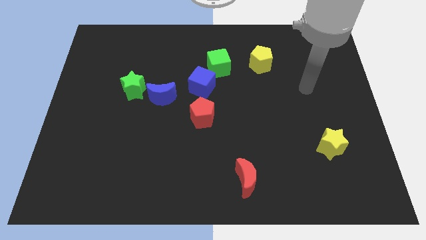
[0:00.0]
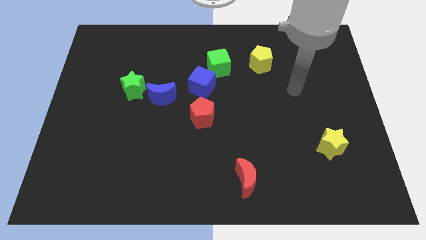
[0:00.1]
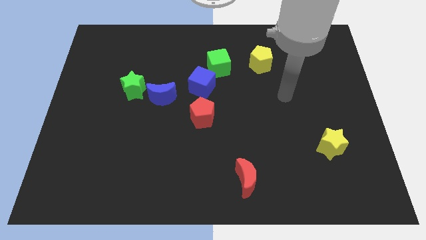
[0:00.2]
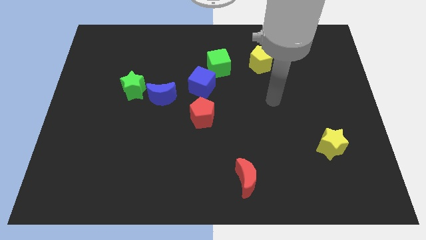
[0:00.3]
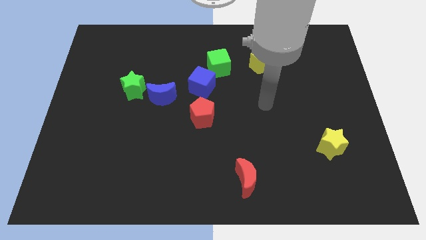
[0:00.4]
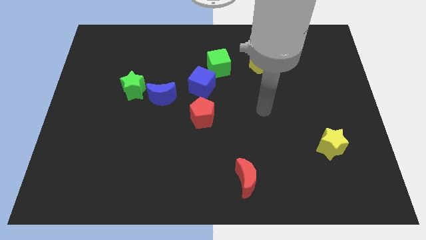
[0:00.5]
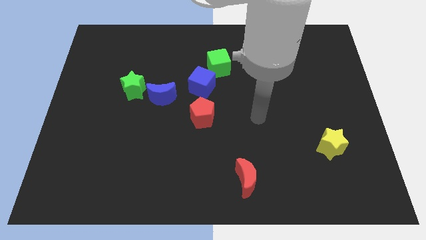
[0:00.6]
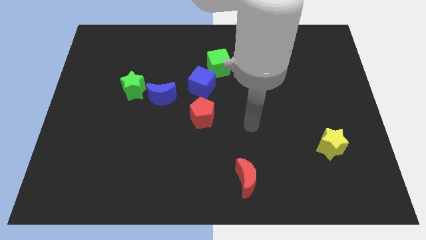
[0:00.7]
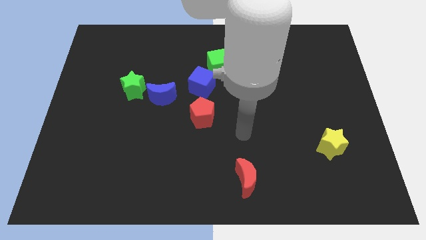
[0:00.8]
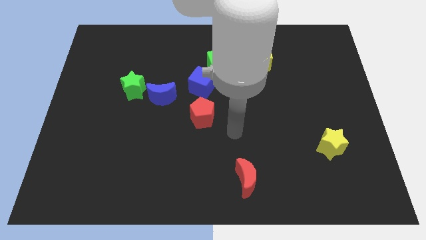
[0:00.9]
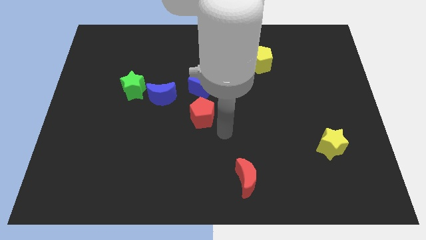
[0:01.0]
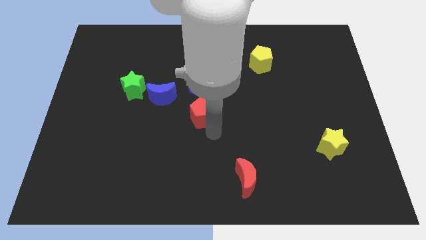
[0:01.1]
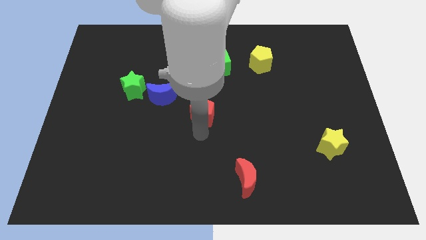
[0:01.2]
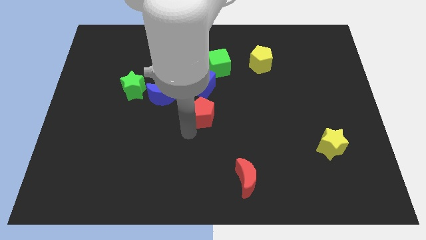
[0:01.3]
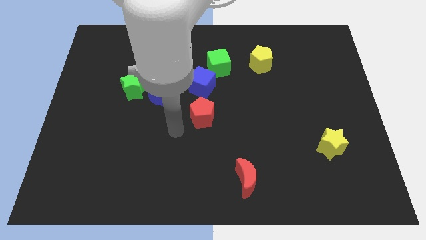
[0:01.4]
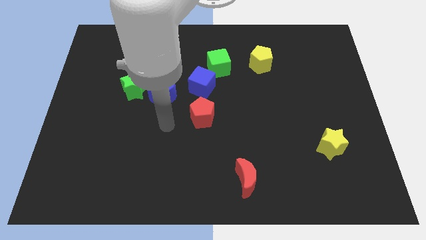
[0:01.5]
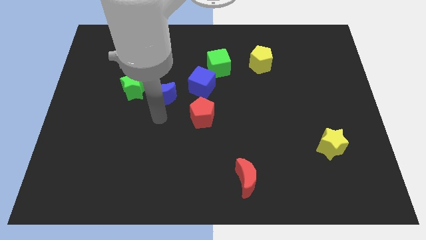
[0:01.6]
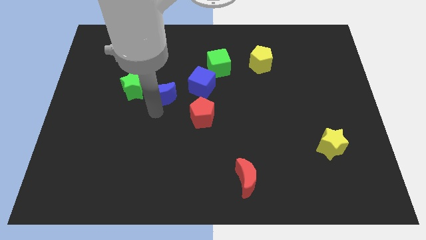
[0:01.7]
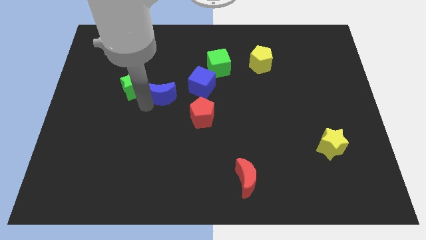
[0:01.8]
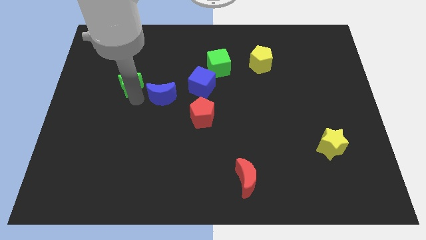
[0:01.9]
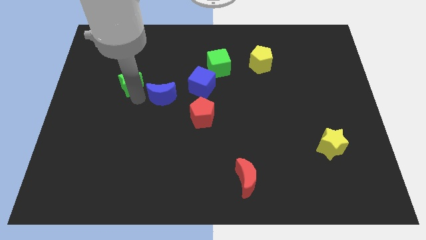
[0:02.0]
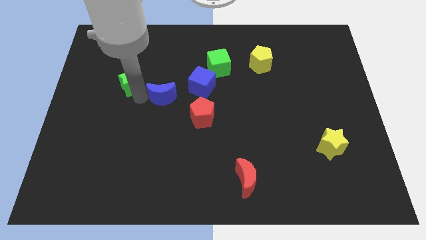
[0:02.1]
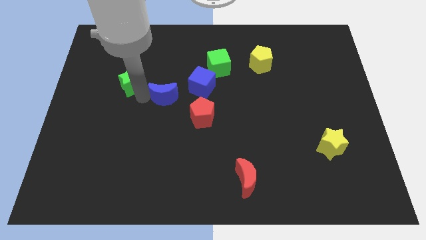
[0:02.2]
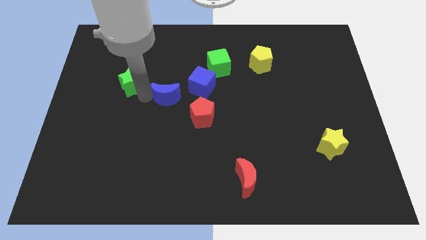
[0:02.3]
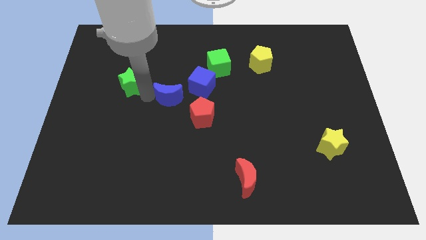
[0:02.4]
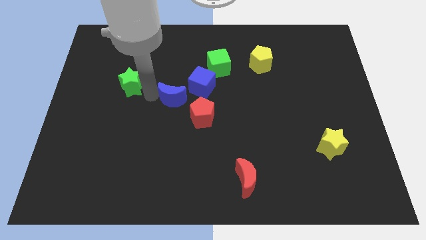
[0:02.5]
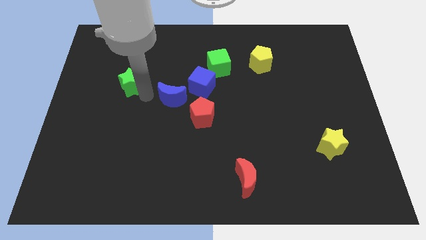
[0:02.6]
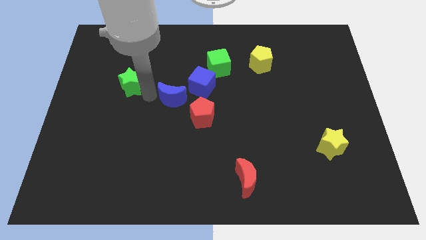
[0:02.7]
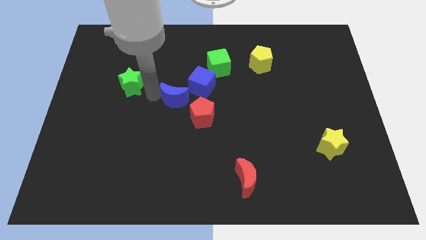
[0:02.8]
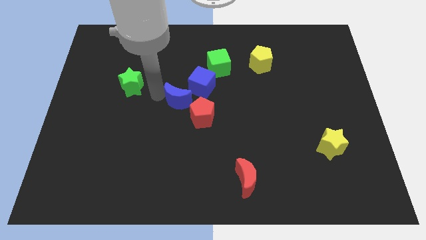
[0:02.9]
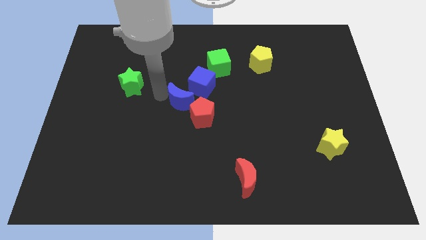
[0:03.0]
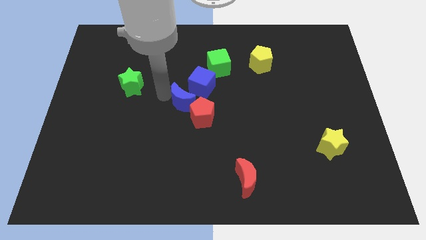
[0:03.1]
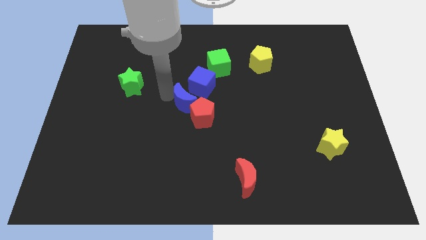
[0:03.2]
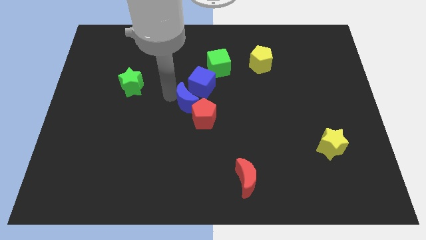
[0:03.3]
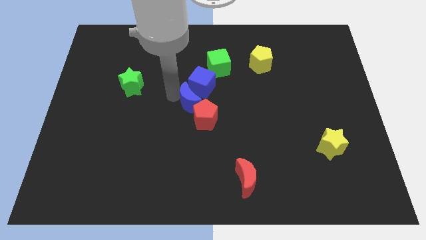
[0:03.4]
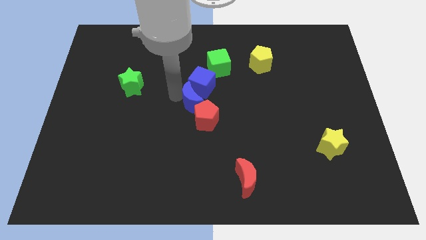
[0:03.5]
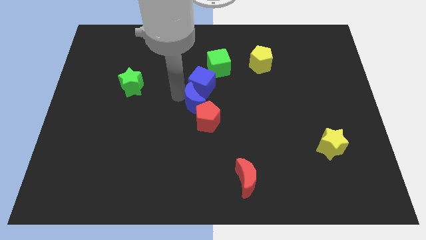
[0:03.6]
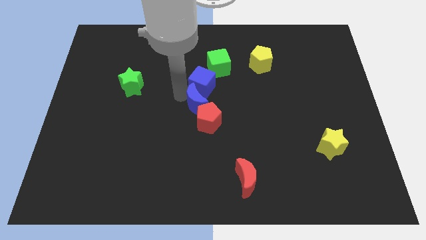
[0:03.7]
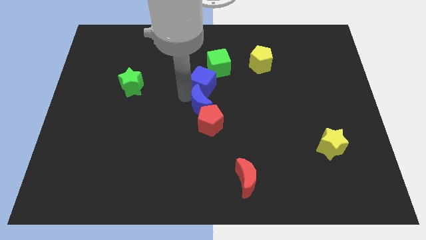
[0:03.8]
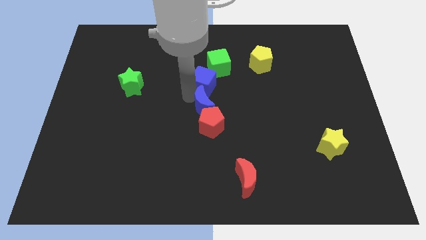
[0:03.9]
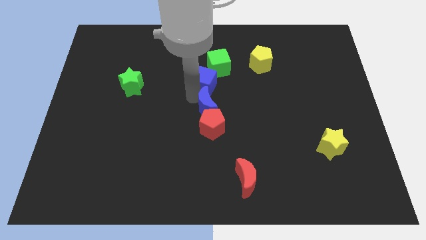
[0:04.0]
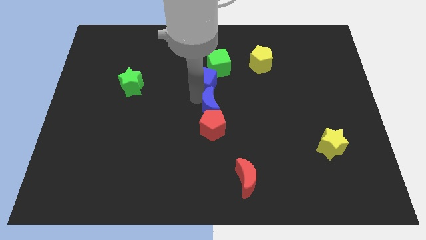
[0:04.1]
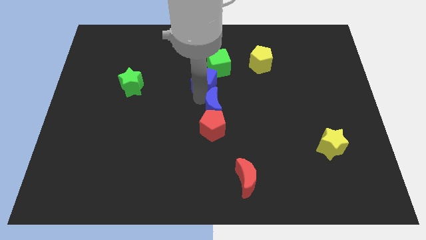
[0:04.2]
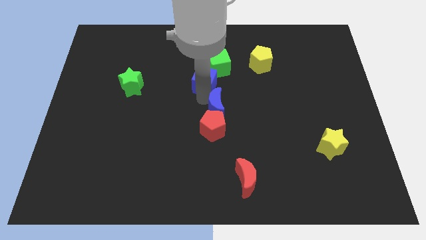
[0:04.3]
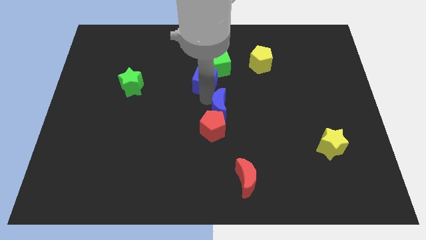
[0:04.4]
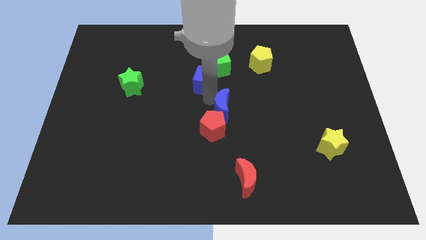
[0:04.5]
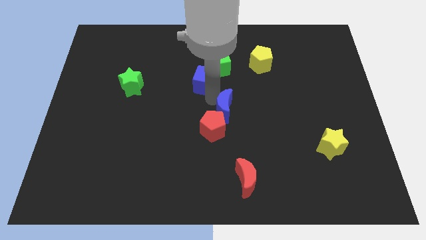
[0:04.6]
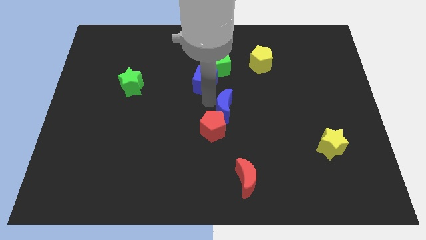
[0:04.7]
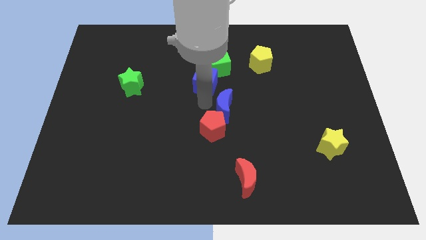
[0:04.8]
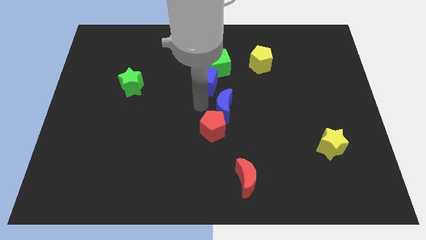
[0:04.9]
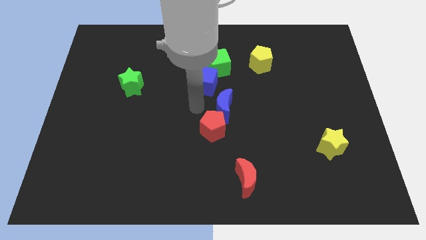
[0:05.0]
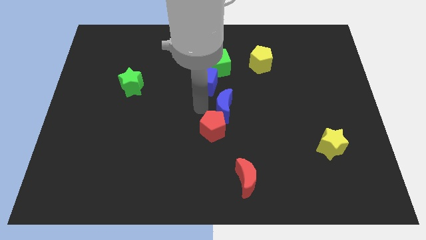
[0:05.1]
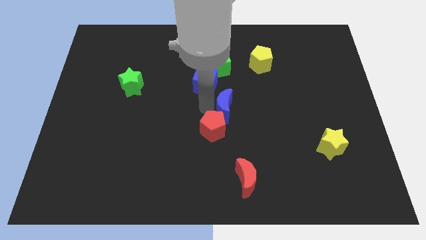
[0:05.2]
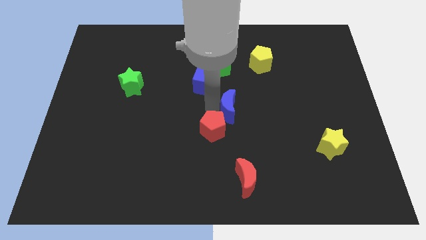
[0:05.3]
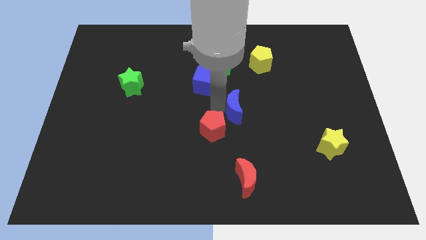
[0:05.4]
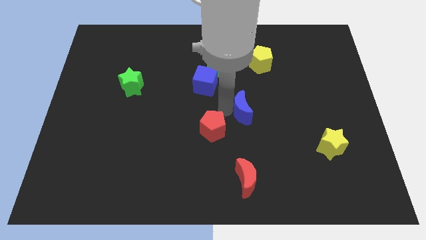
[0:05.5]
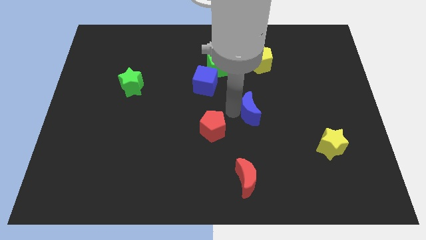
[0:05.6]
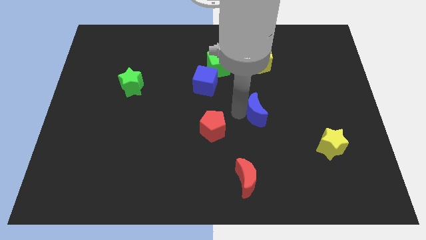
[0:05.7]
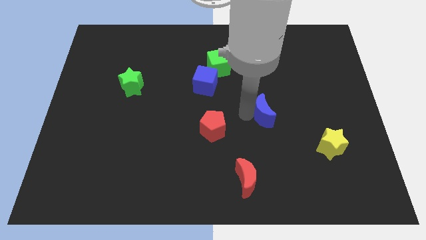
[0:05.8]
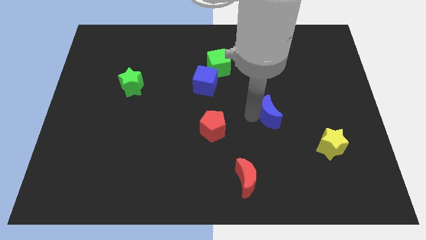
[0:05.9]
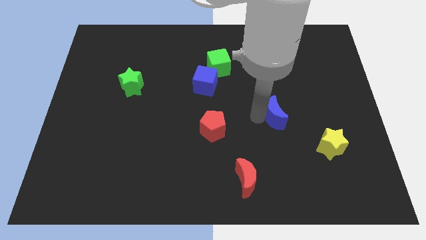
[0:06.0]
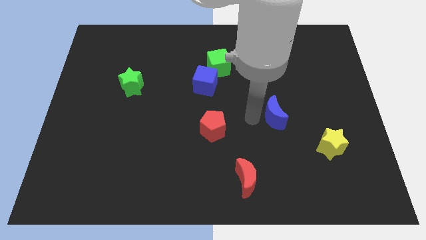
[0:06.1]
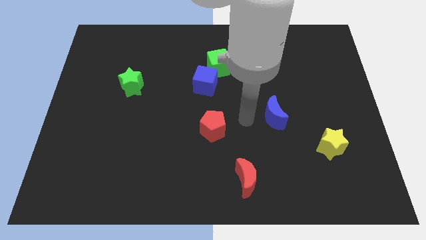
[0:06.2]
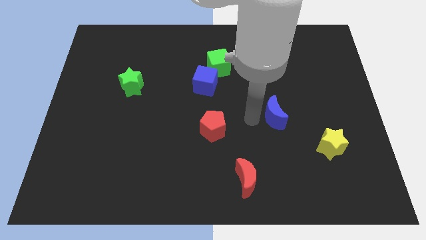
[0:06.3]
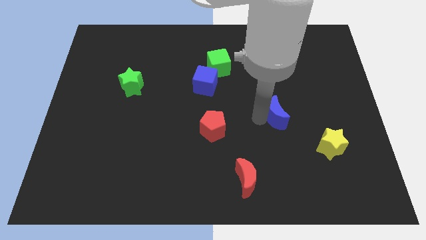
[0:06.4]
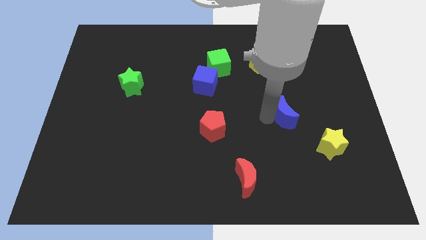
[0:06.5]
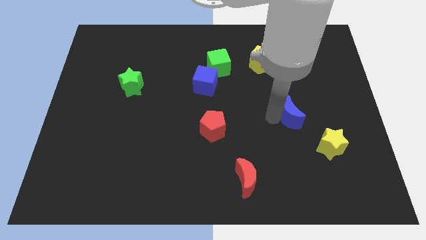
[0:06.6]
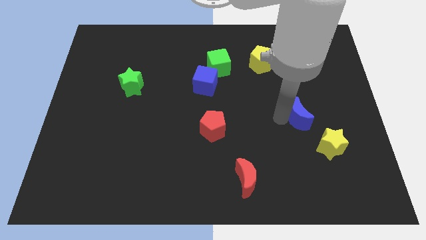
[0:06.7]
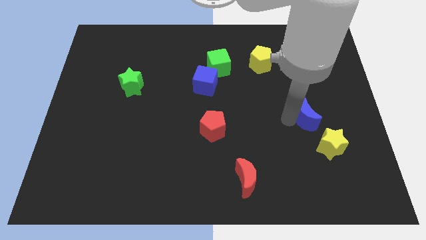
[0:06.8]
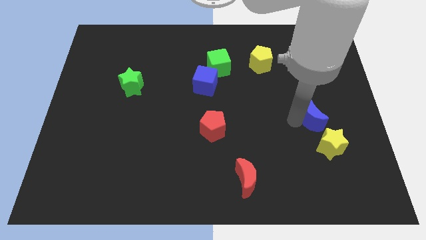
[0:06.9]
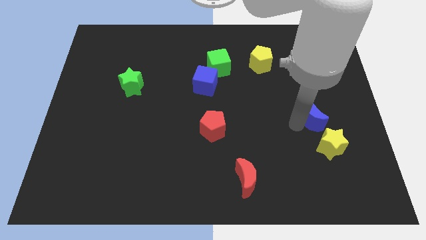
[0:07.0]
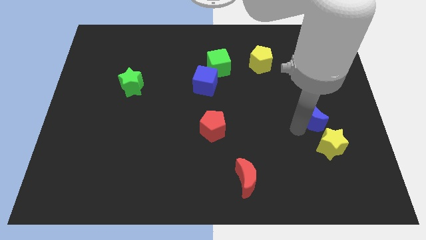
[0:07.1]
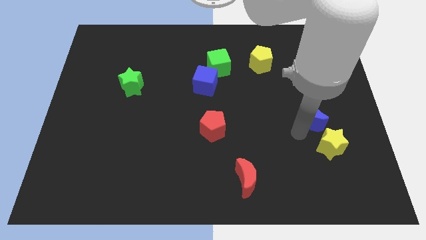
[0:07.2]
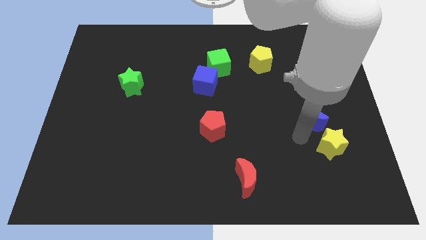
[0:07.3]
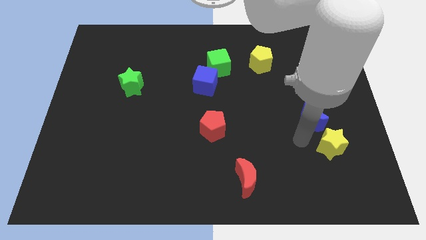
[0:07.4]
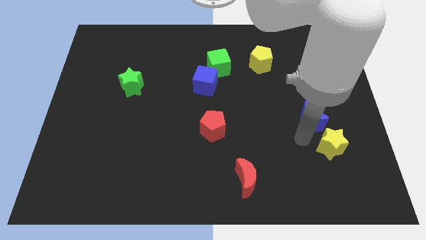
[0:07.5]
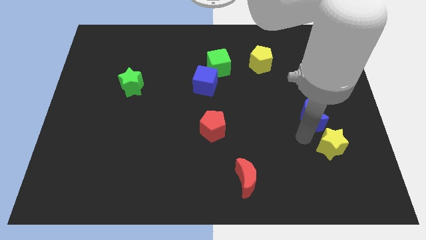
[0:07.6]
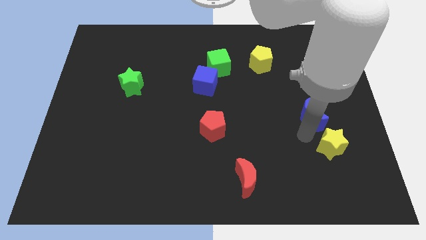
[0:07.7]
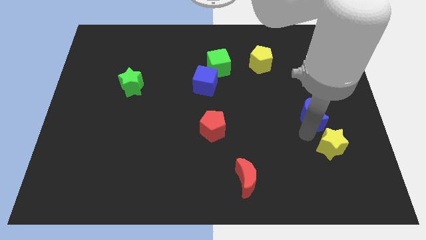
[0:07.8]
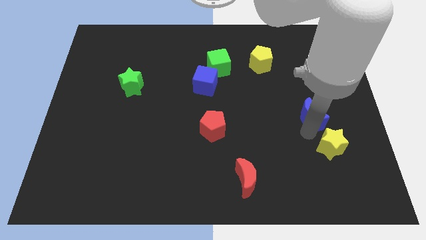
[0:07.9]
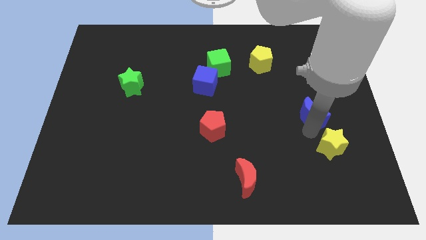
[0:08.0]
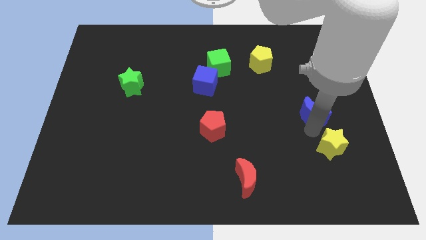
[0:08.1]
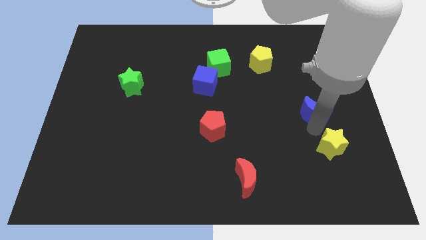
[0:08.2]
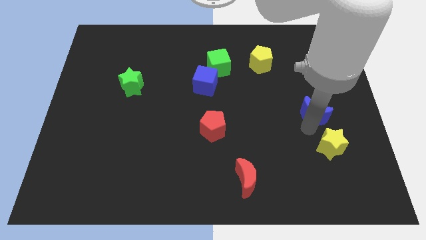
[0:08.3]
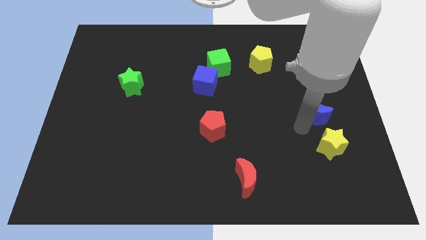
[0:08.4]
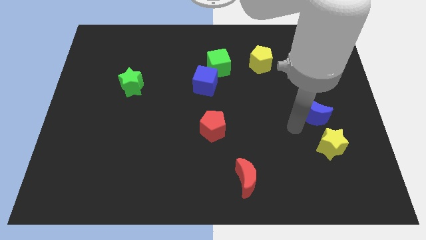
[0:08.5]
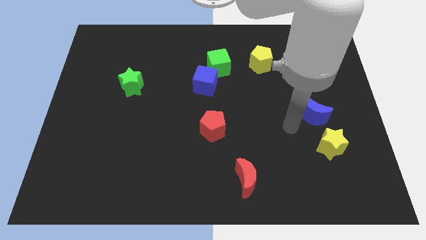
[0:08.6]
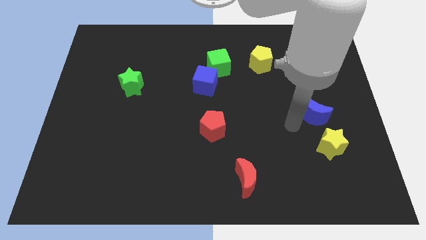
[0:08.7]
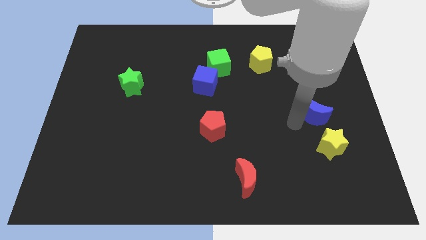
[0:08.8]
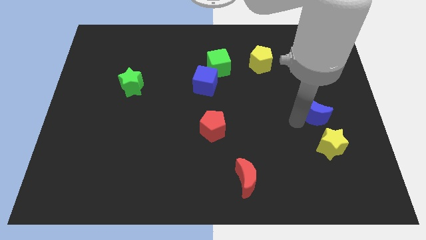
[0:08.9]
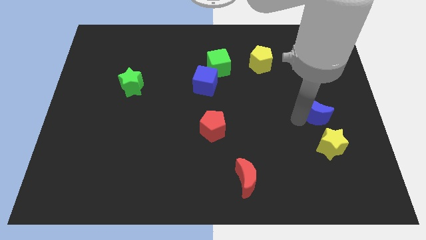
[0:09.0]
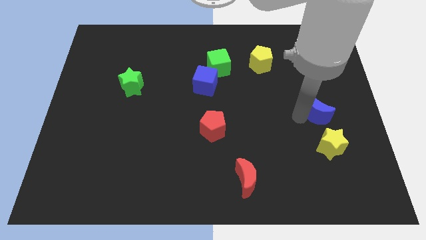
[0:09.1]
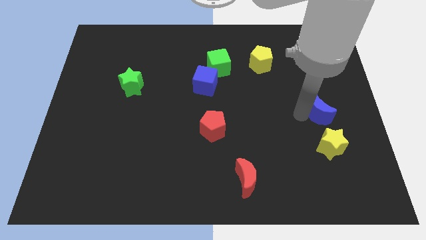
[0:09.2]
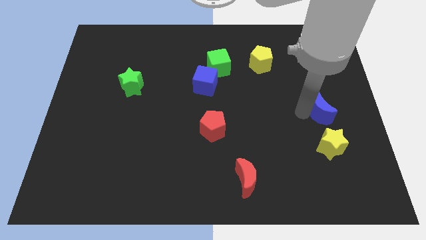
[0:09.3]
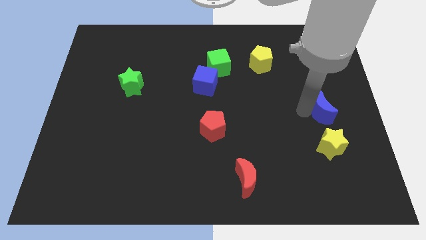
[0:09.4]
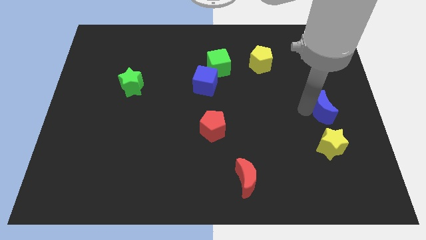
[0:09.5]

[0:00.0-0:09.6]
move the blue moon to the center right
